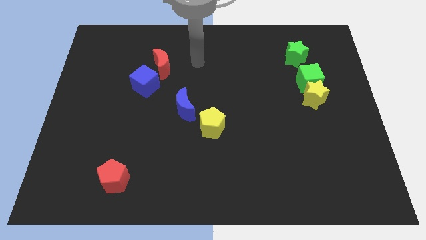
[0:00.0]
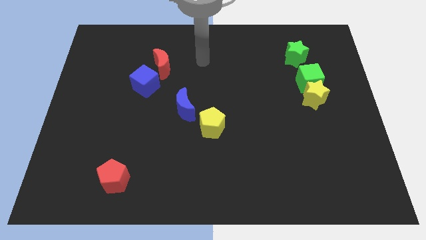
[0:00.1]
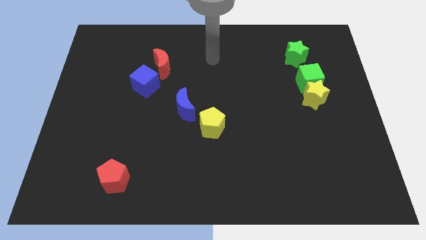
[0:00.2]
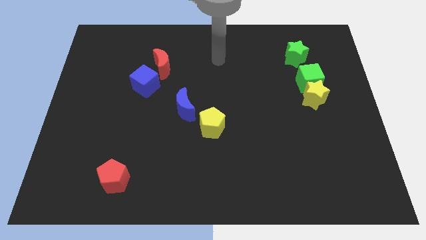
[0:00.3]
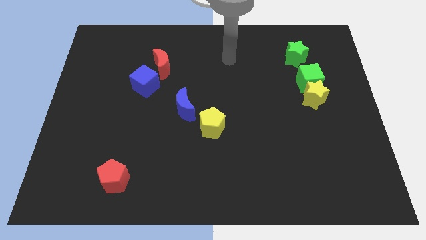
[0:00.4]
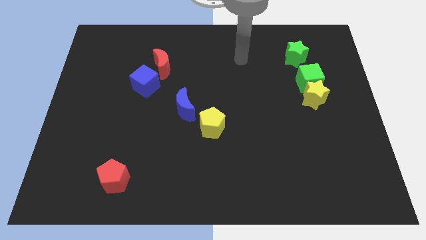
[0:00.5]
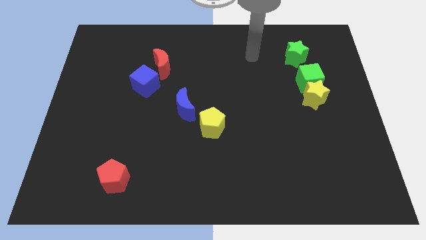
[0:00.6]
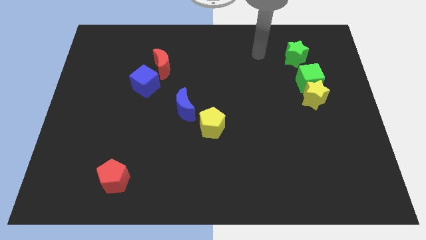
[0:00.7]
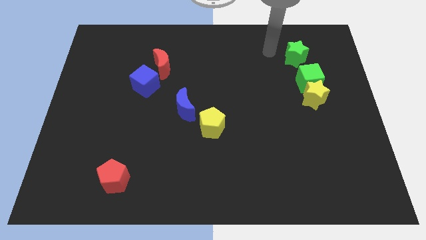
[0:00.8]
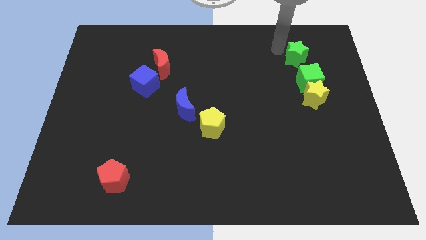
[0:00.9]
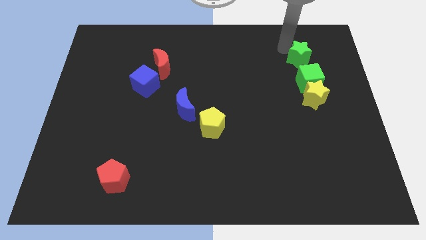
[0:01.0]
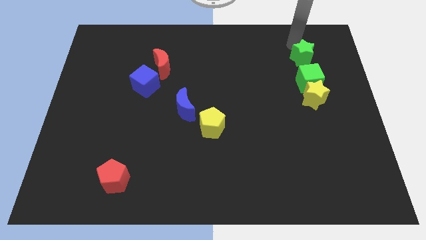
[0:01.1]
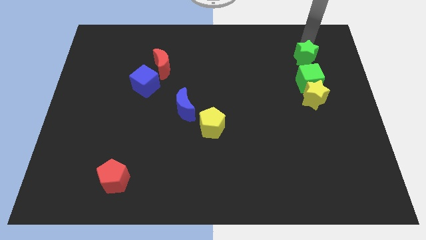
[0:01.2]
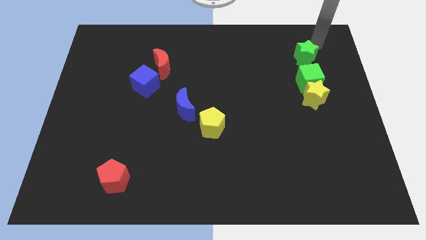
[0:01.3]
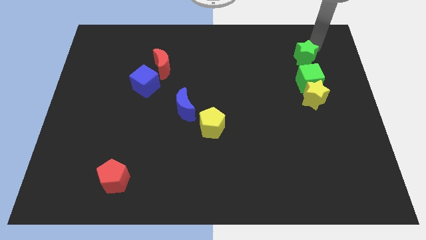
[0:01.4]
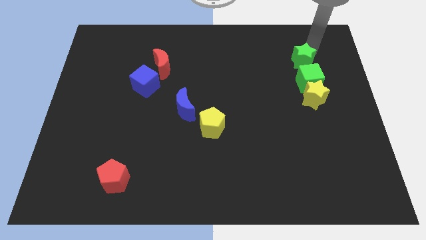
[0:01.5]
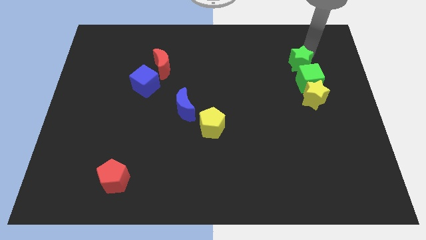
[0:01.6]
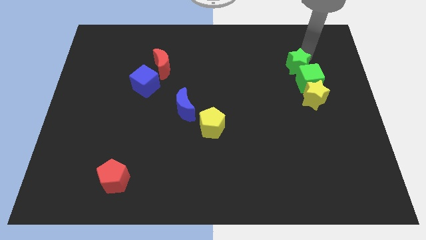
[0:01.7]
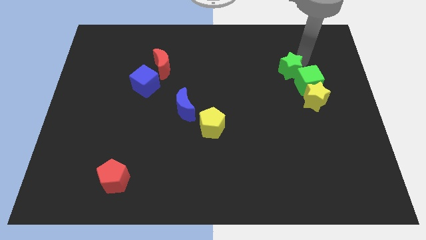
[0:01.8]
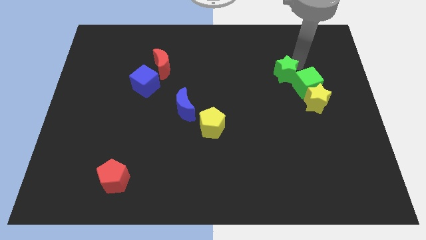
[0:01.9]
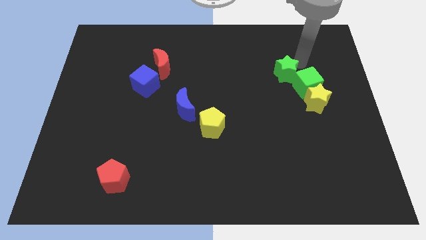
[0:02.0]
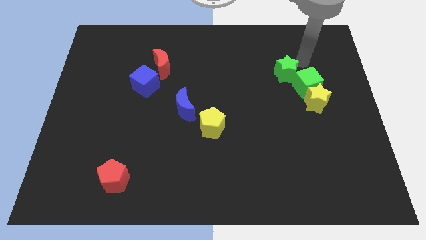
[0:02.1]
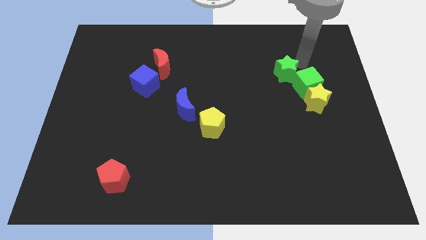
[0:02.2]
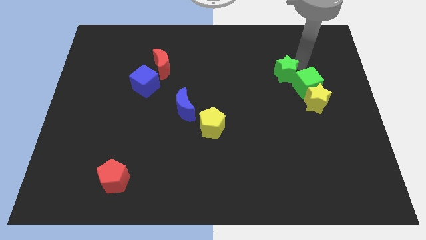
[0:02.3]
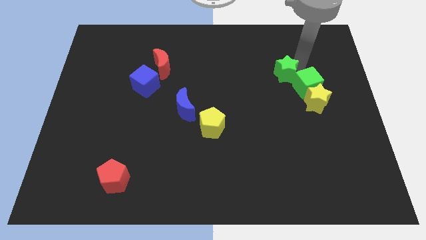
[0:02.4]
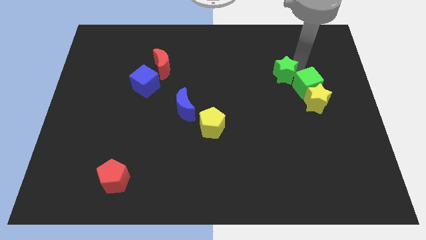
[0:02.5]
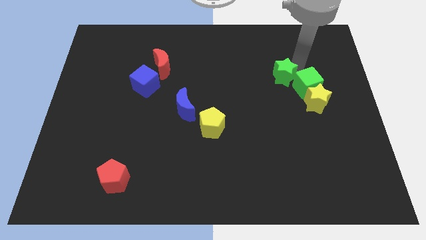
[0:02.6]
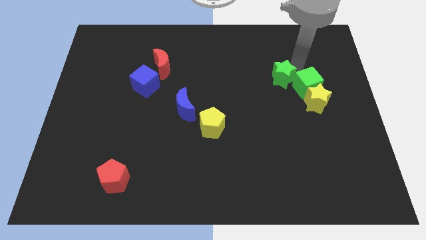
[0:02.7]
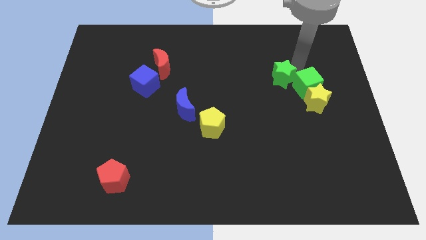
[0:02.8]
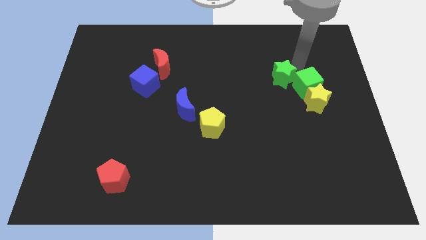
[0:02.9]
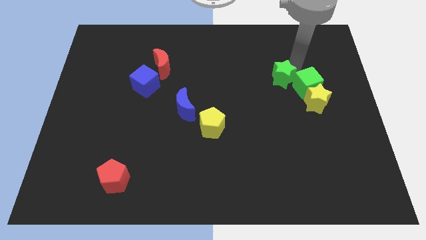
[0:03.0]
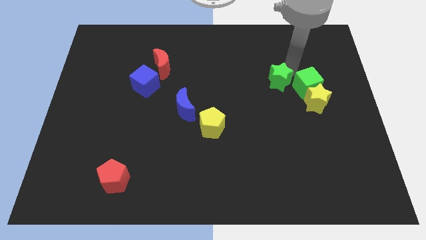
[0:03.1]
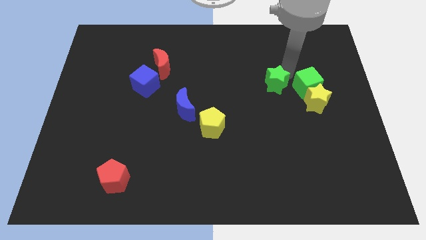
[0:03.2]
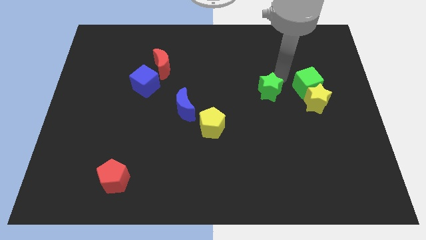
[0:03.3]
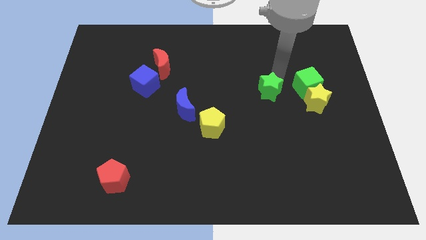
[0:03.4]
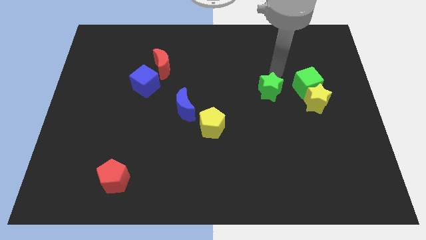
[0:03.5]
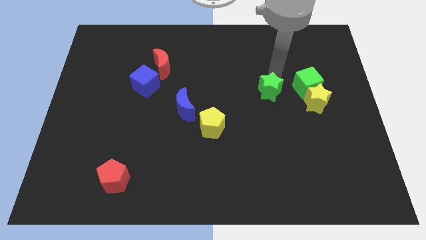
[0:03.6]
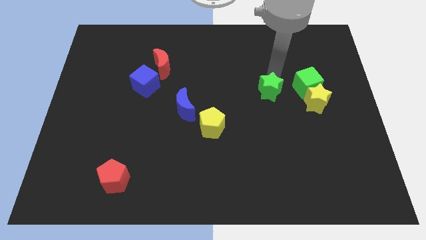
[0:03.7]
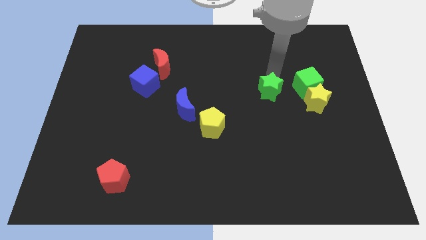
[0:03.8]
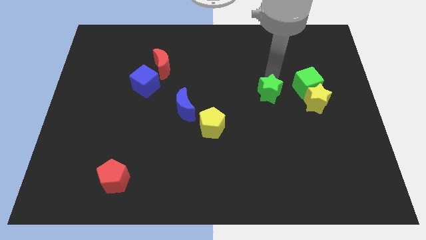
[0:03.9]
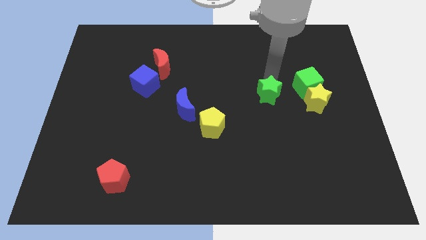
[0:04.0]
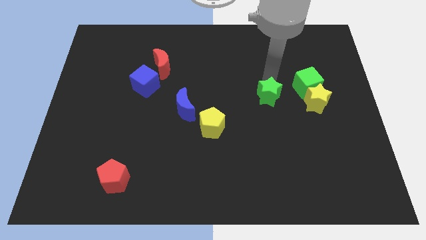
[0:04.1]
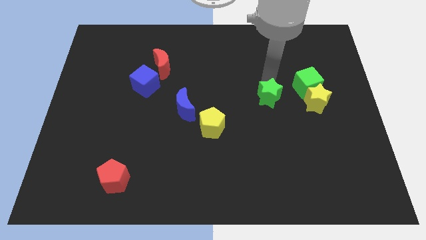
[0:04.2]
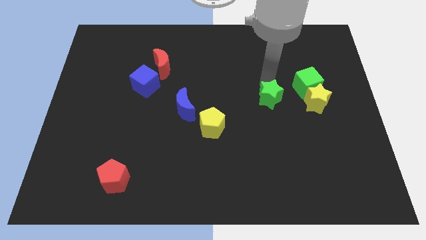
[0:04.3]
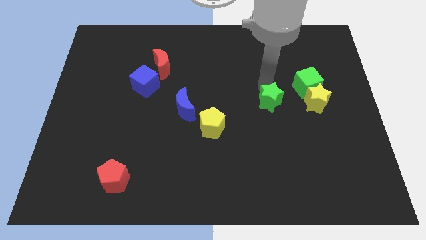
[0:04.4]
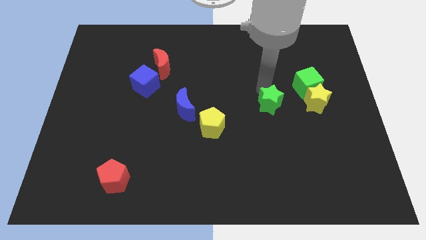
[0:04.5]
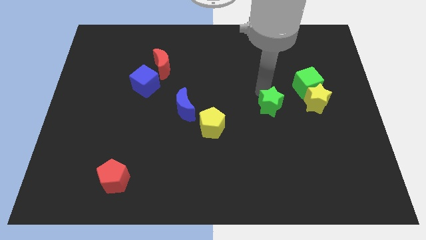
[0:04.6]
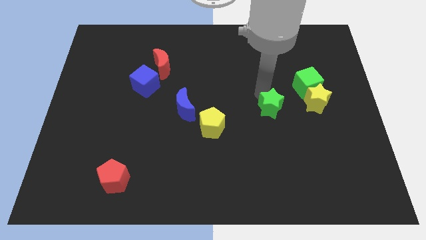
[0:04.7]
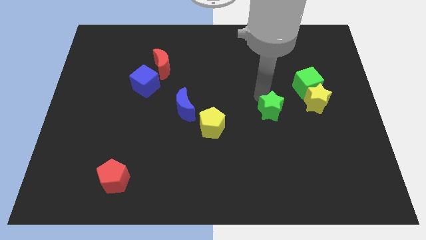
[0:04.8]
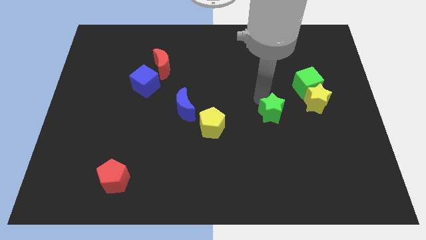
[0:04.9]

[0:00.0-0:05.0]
put the green star right of the yellow pentagon

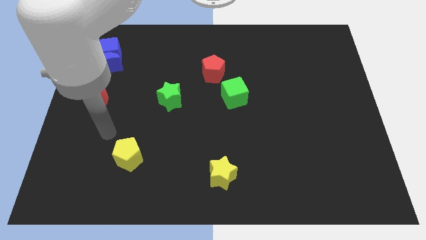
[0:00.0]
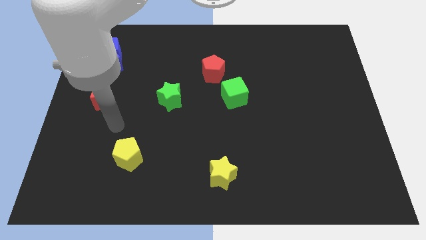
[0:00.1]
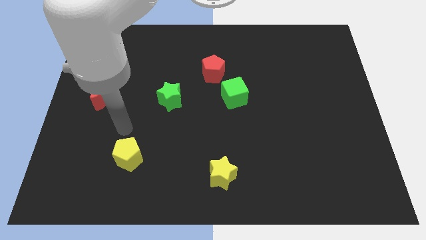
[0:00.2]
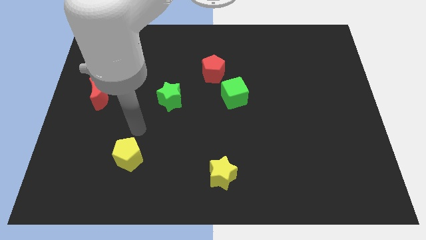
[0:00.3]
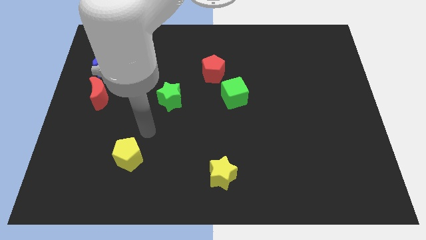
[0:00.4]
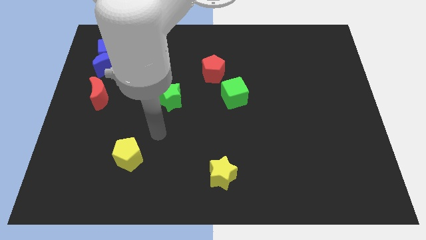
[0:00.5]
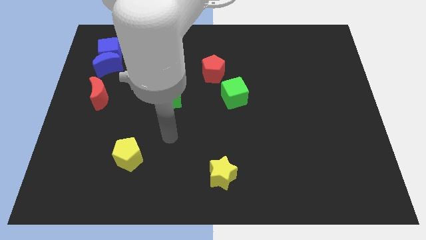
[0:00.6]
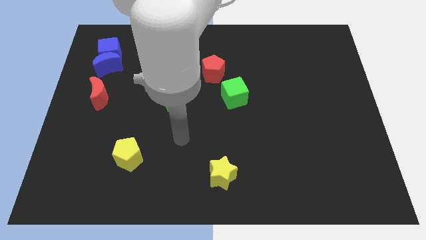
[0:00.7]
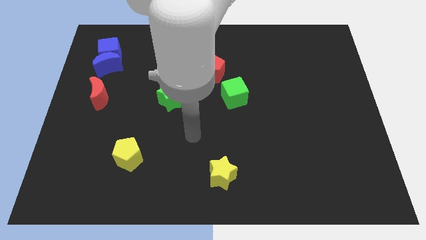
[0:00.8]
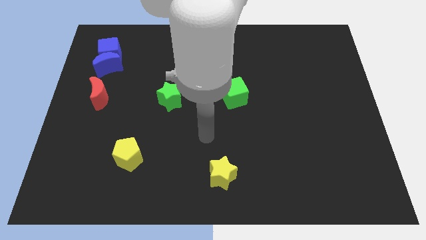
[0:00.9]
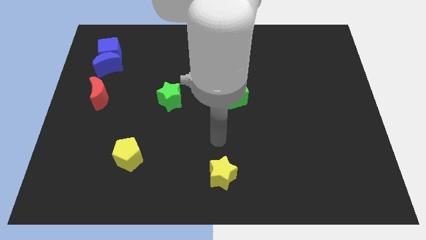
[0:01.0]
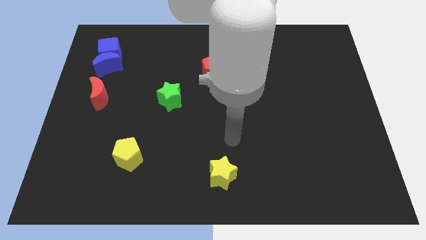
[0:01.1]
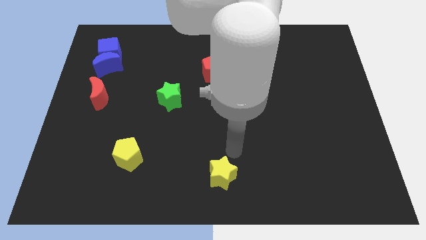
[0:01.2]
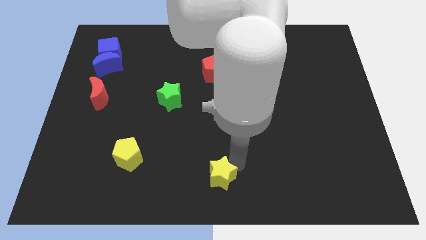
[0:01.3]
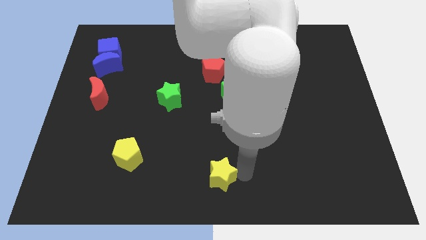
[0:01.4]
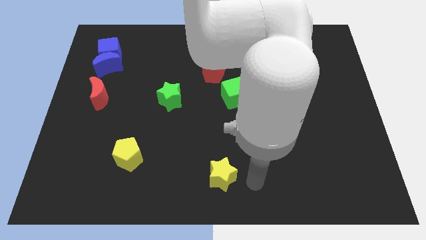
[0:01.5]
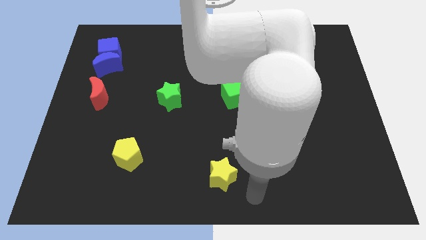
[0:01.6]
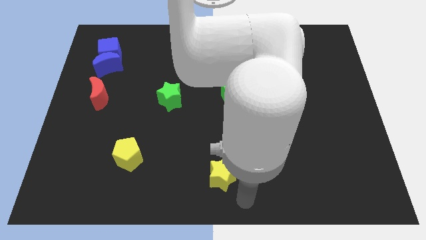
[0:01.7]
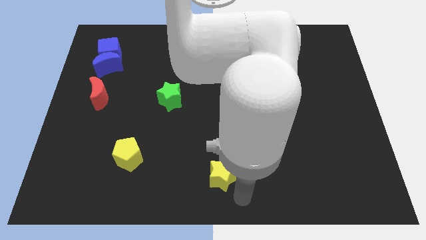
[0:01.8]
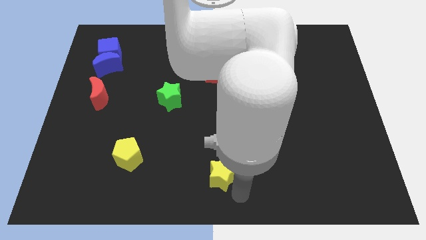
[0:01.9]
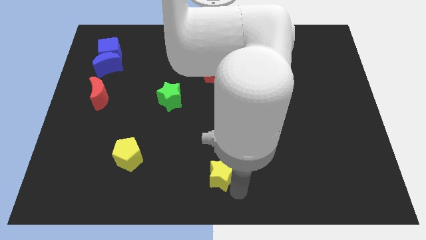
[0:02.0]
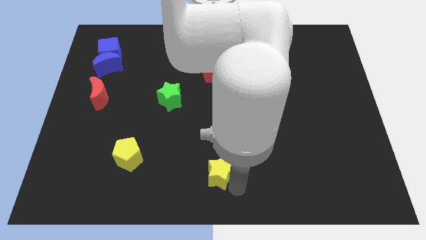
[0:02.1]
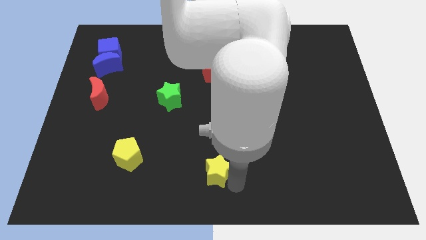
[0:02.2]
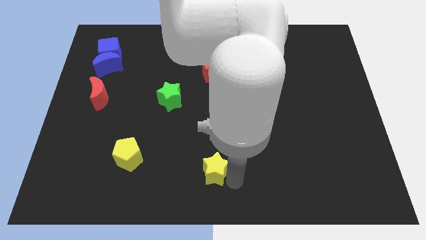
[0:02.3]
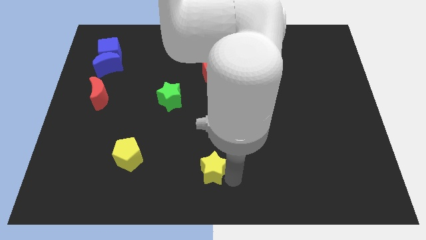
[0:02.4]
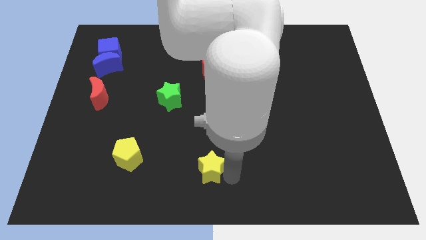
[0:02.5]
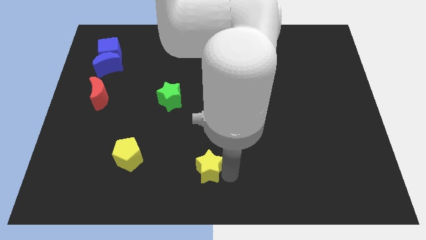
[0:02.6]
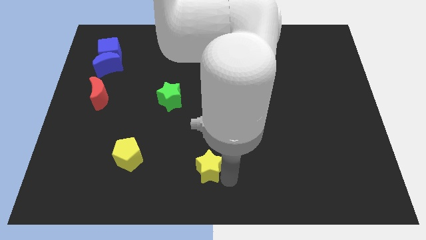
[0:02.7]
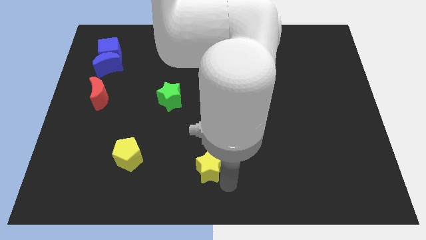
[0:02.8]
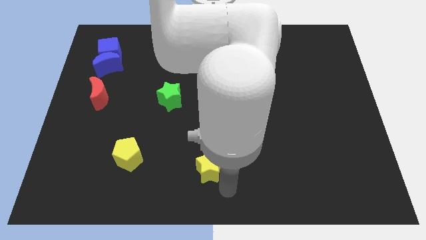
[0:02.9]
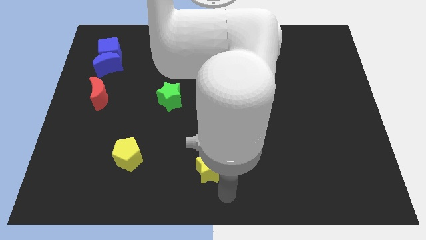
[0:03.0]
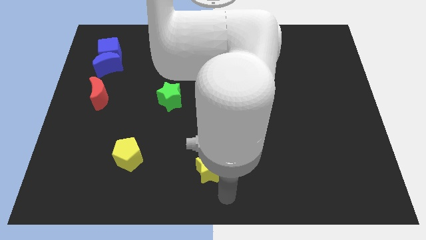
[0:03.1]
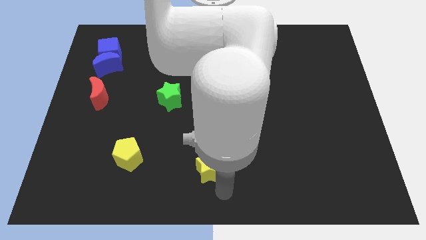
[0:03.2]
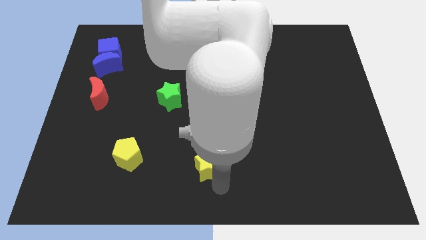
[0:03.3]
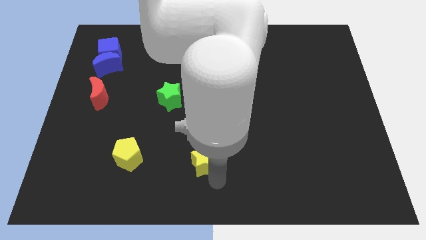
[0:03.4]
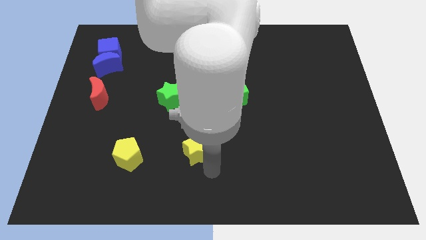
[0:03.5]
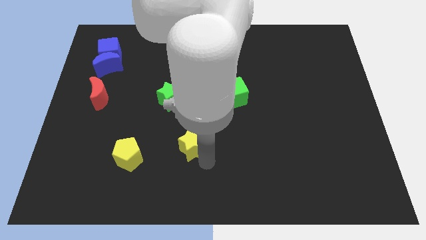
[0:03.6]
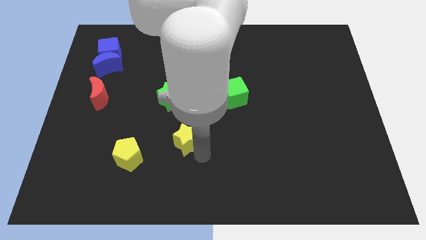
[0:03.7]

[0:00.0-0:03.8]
move the yellow star below the green star
